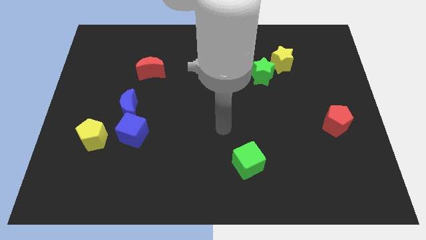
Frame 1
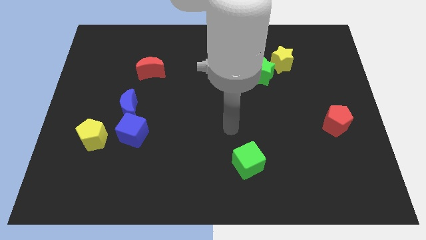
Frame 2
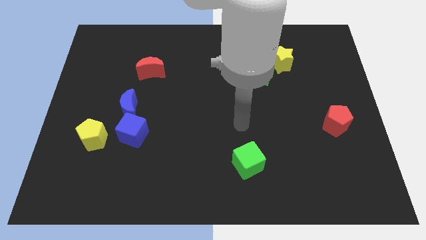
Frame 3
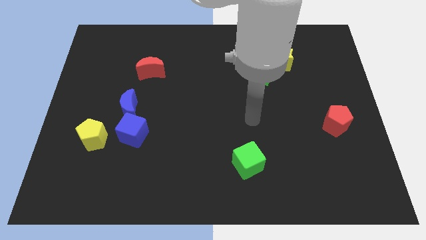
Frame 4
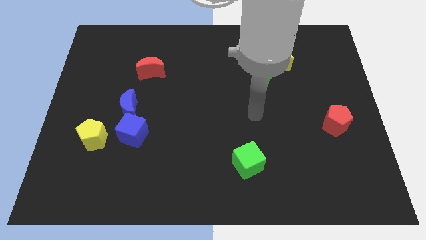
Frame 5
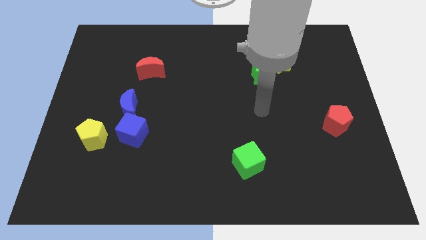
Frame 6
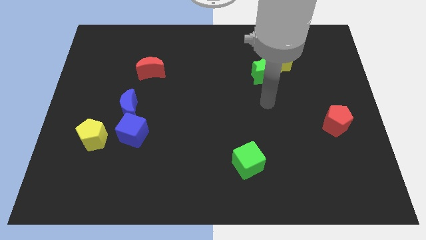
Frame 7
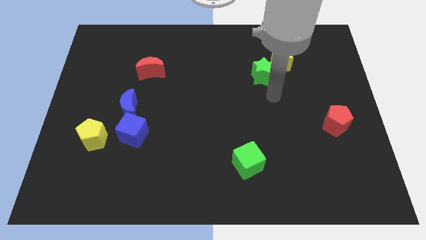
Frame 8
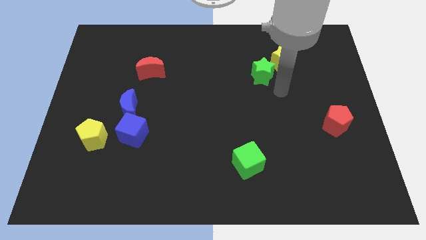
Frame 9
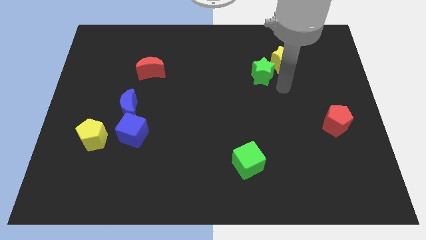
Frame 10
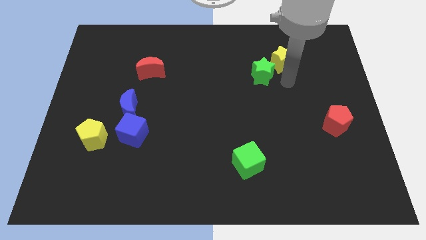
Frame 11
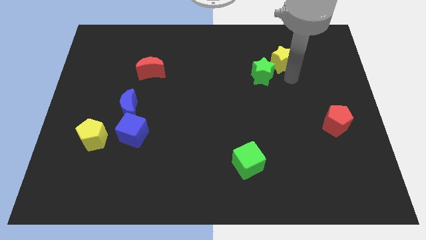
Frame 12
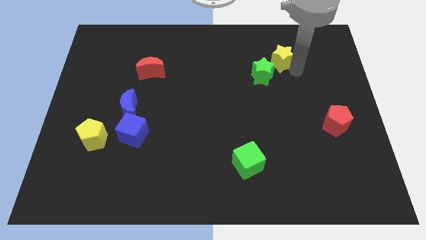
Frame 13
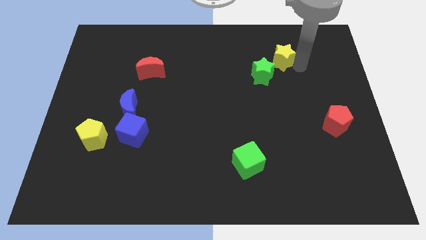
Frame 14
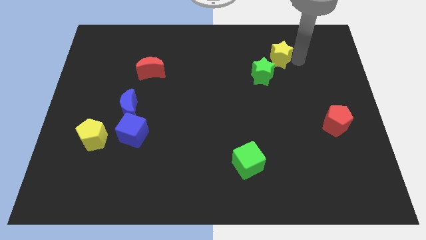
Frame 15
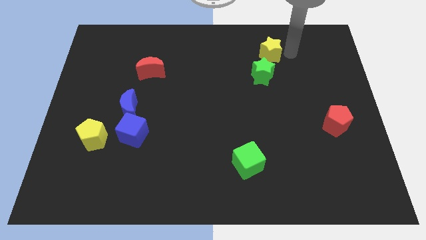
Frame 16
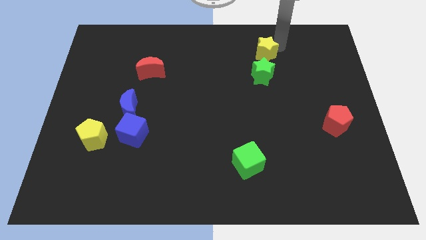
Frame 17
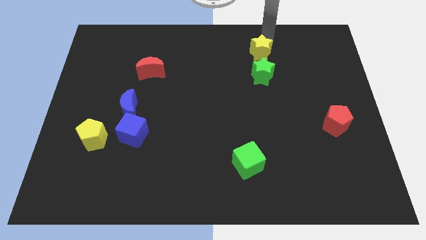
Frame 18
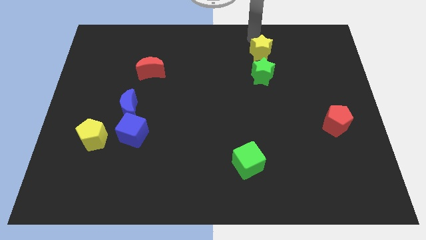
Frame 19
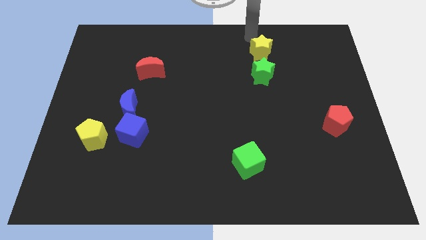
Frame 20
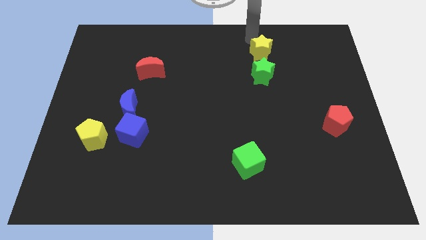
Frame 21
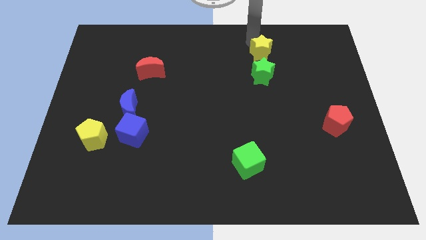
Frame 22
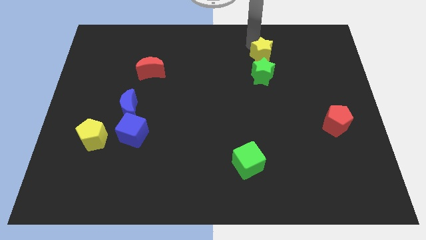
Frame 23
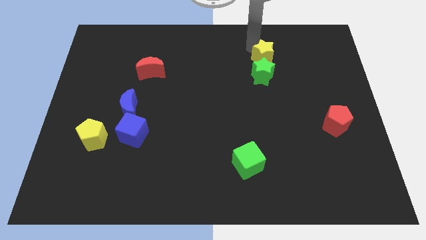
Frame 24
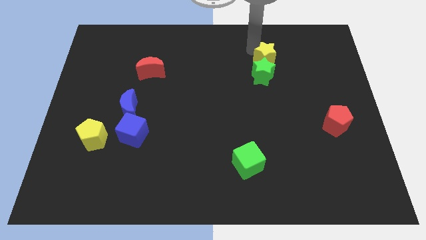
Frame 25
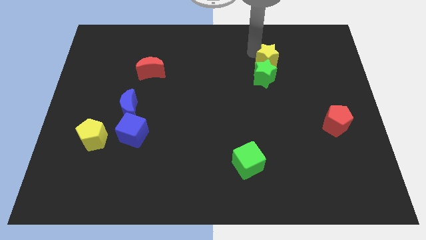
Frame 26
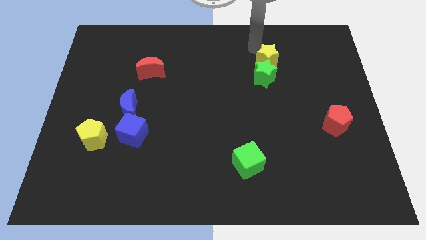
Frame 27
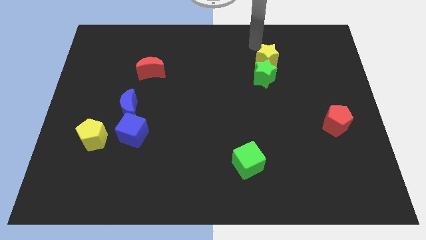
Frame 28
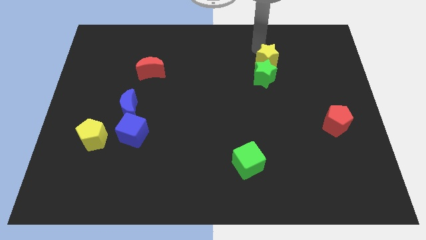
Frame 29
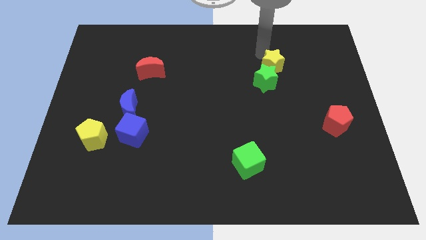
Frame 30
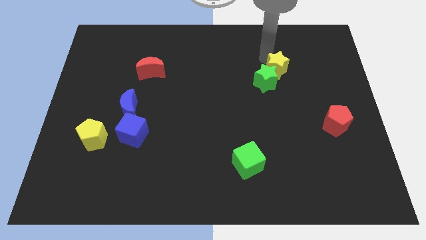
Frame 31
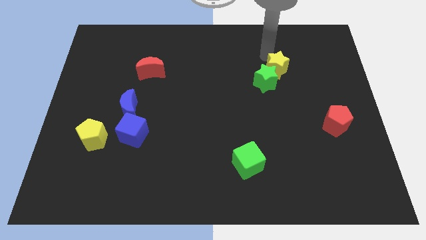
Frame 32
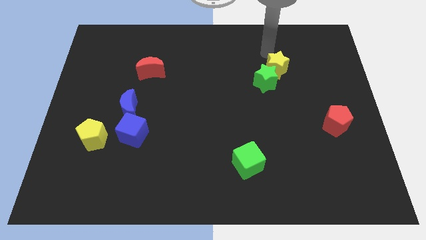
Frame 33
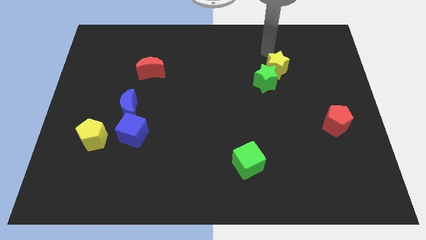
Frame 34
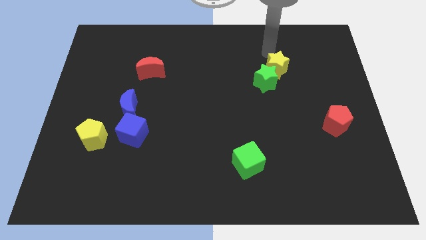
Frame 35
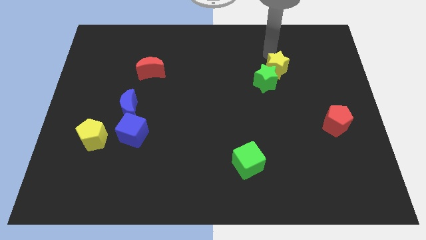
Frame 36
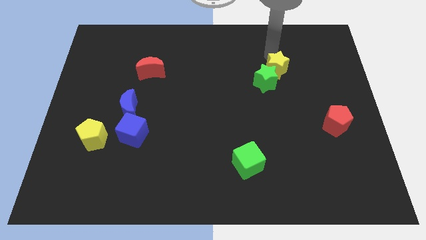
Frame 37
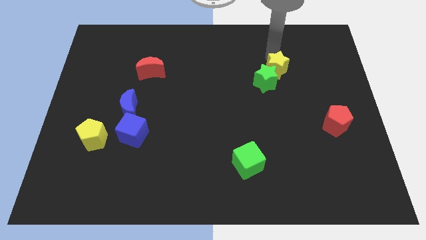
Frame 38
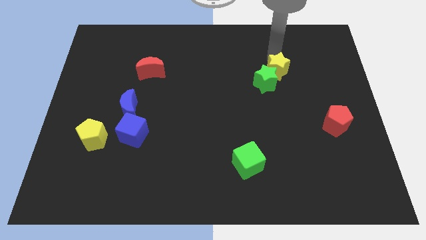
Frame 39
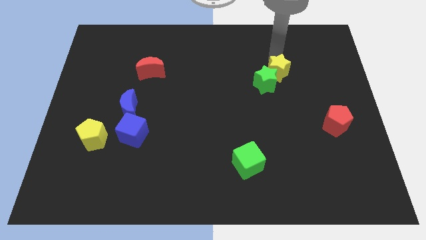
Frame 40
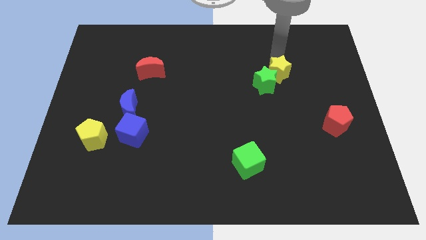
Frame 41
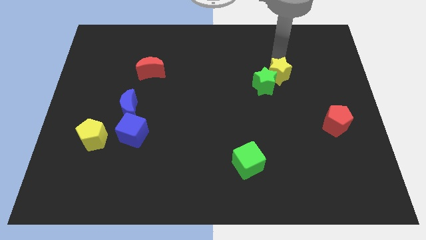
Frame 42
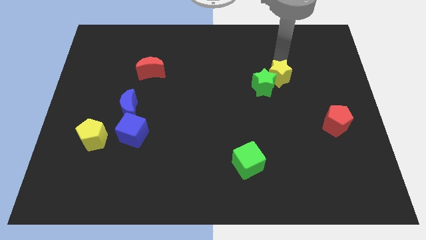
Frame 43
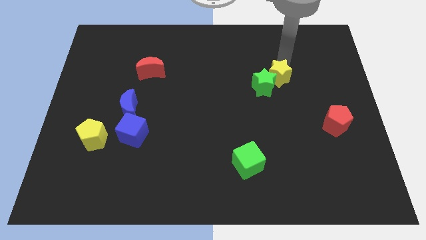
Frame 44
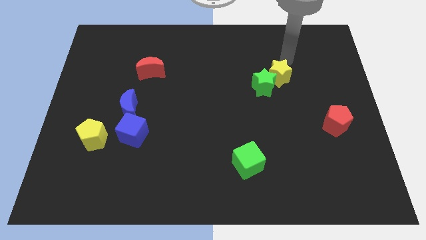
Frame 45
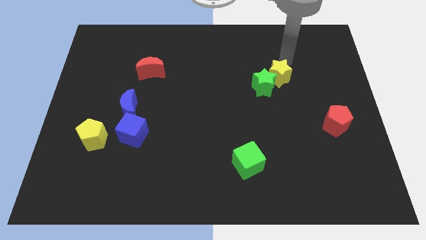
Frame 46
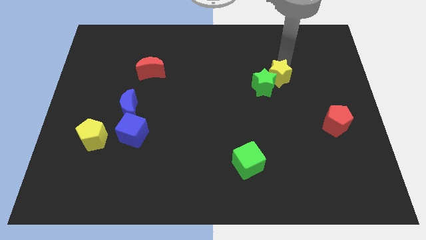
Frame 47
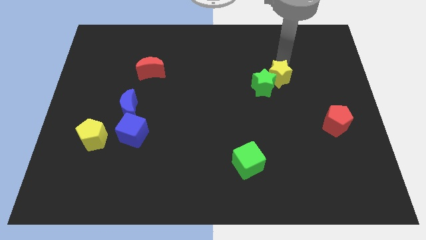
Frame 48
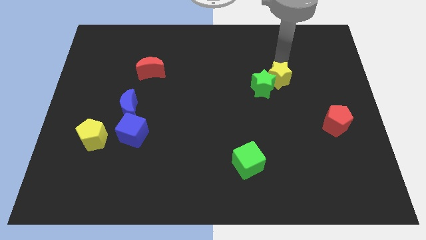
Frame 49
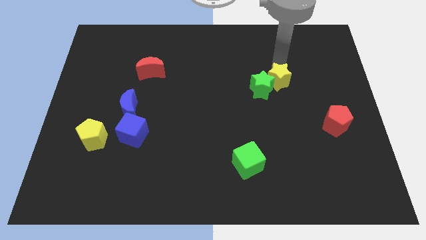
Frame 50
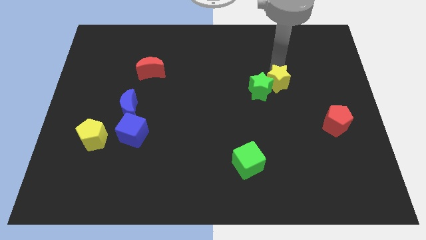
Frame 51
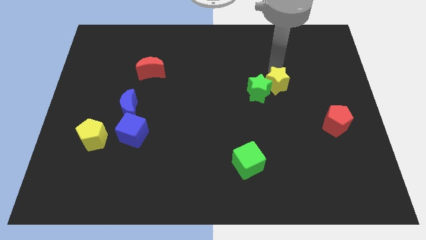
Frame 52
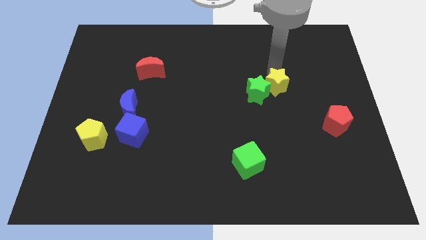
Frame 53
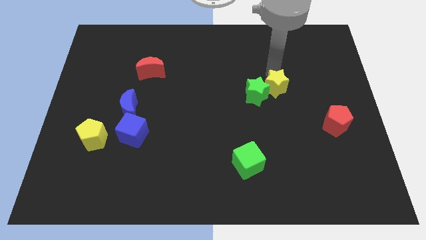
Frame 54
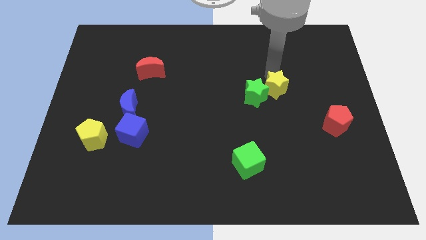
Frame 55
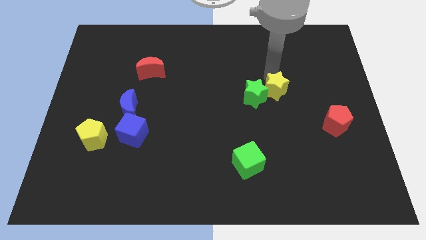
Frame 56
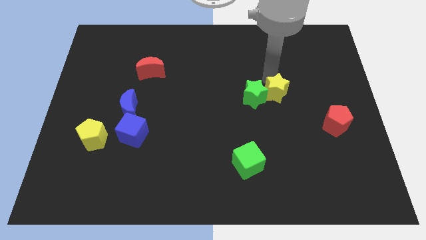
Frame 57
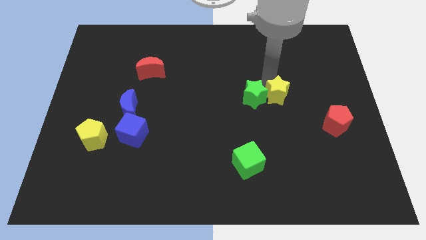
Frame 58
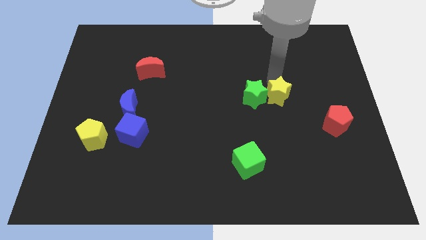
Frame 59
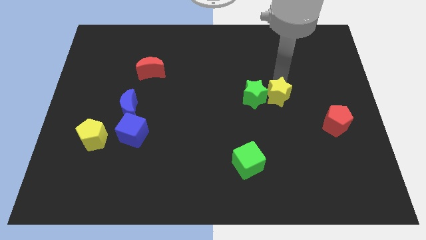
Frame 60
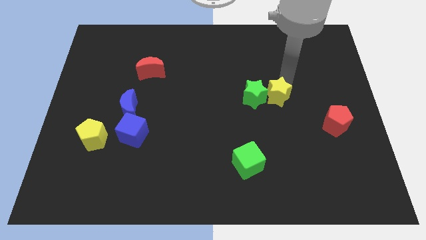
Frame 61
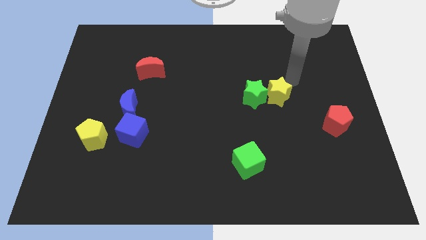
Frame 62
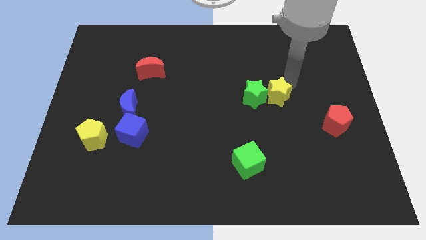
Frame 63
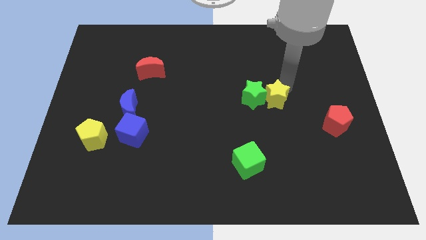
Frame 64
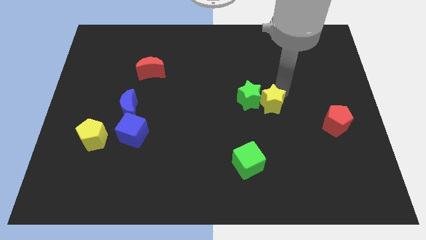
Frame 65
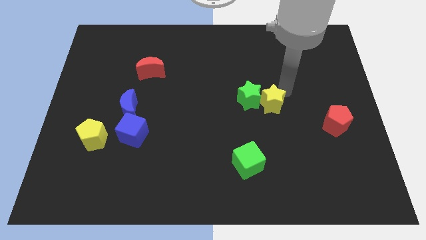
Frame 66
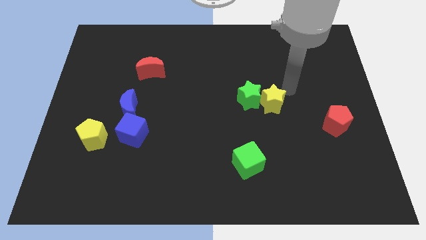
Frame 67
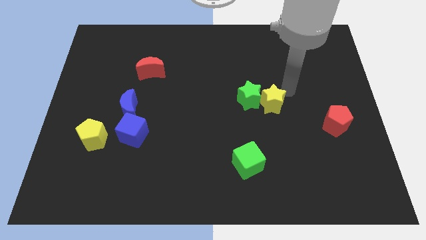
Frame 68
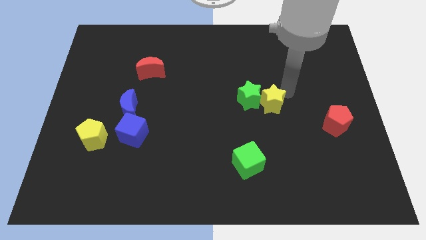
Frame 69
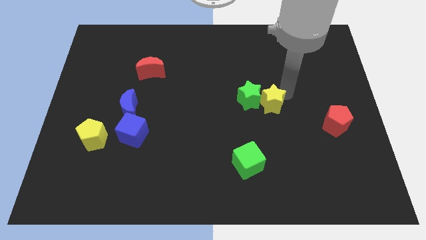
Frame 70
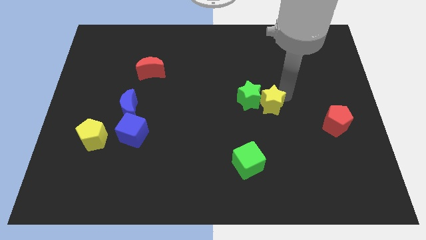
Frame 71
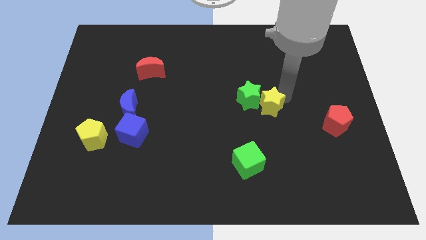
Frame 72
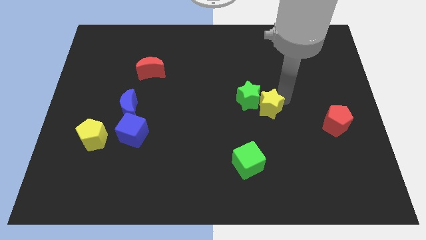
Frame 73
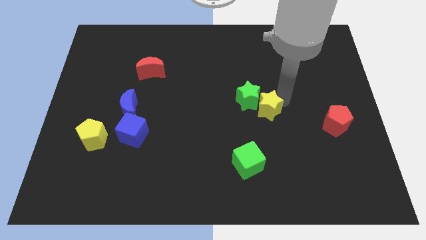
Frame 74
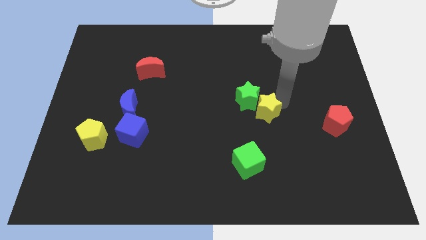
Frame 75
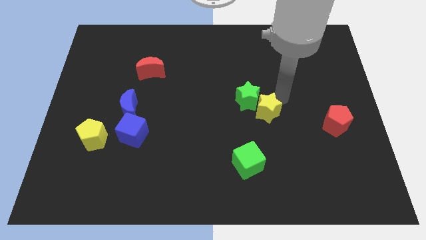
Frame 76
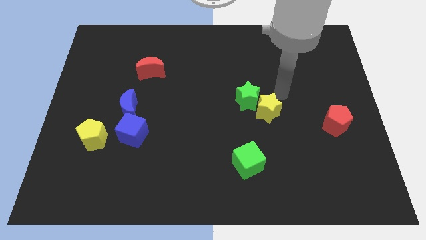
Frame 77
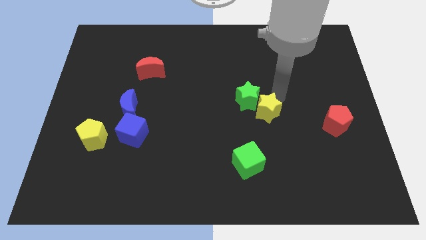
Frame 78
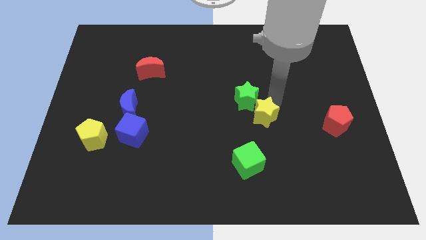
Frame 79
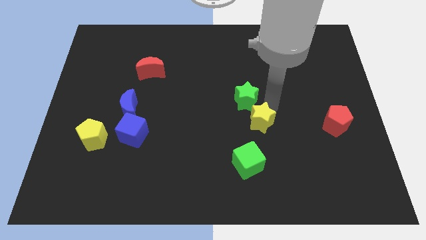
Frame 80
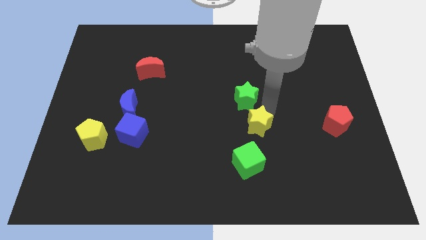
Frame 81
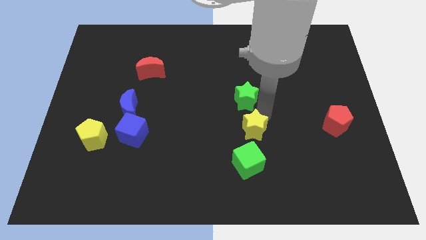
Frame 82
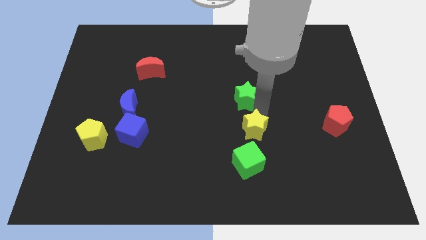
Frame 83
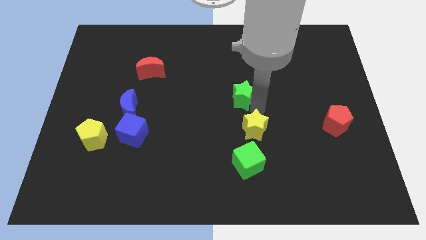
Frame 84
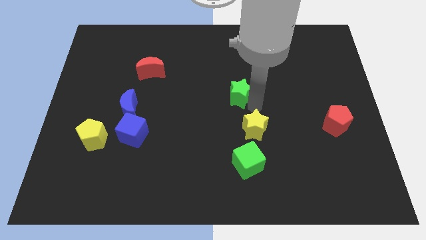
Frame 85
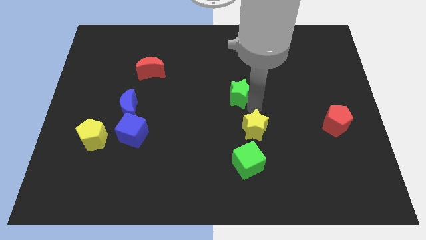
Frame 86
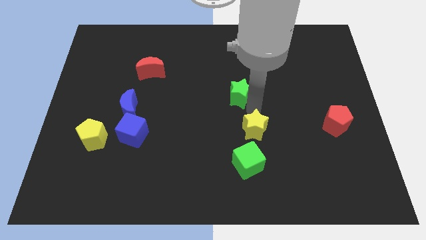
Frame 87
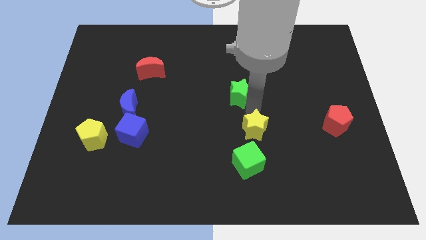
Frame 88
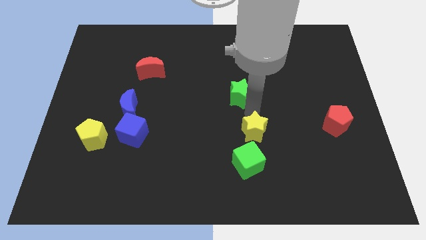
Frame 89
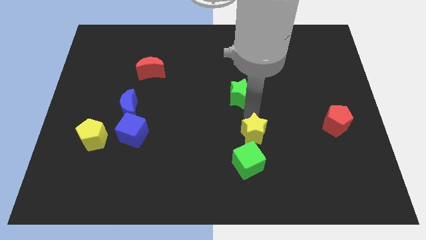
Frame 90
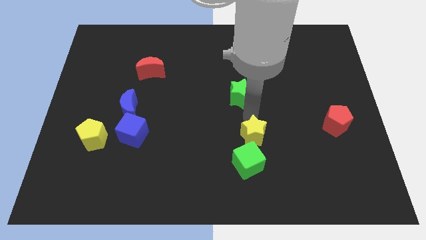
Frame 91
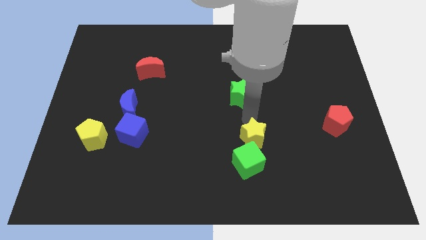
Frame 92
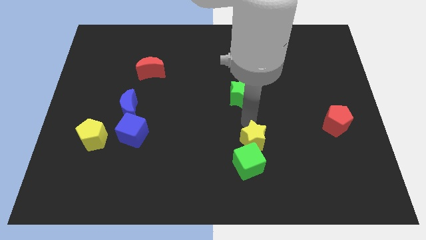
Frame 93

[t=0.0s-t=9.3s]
push the yellow star close to the green cube
